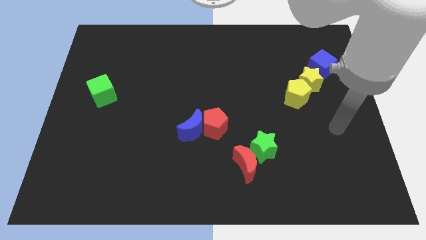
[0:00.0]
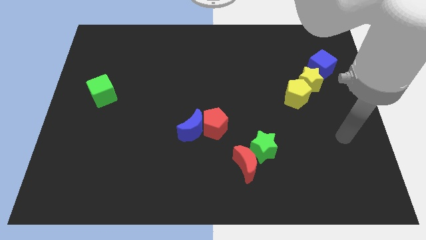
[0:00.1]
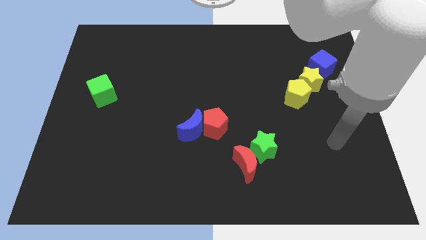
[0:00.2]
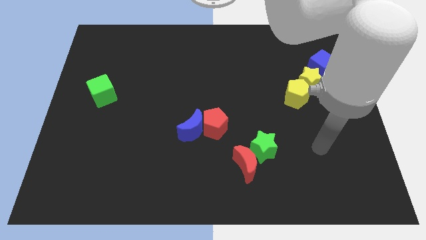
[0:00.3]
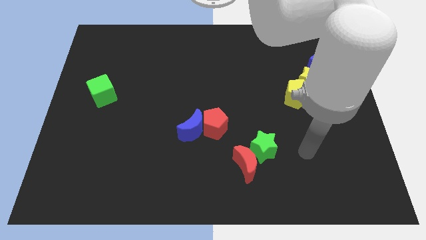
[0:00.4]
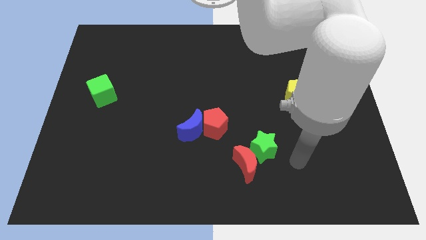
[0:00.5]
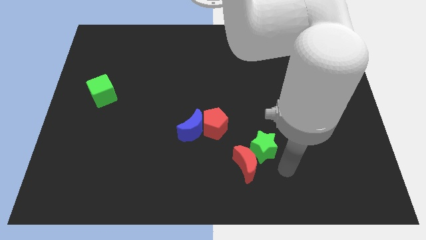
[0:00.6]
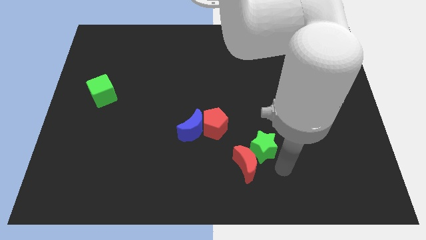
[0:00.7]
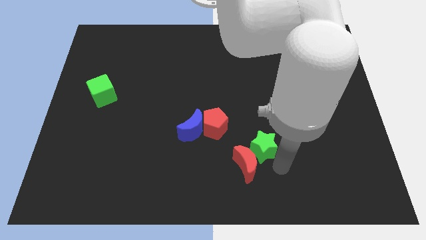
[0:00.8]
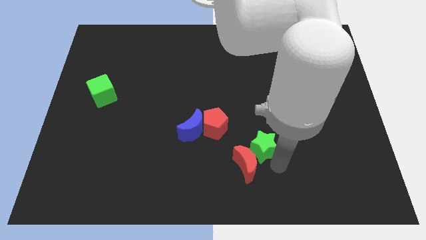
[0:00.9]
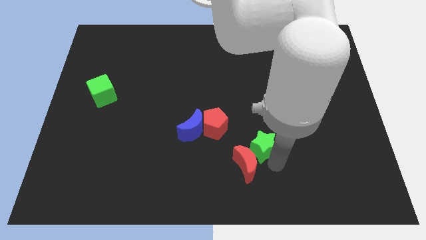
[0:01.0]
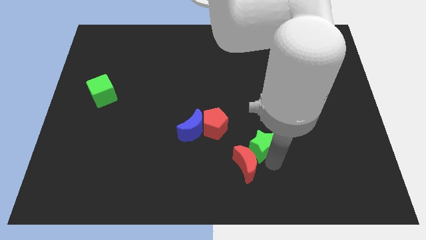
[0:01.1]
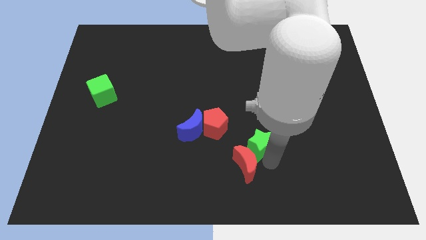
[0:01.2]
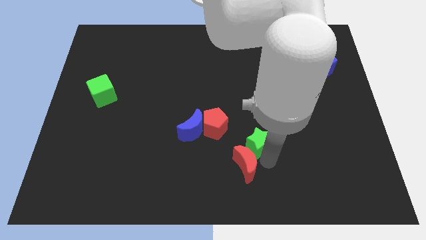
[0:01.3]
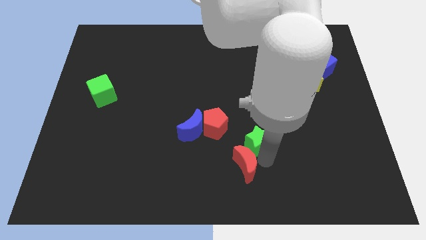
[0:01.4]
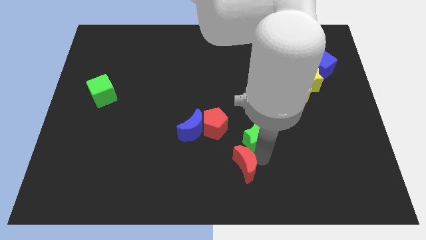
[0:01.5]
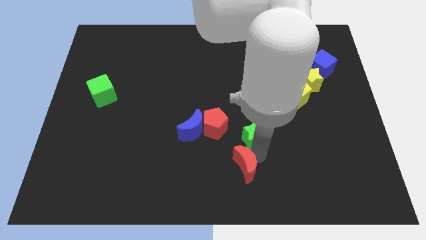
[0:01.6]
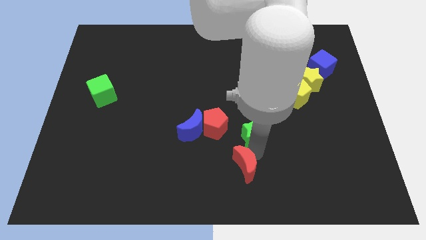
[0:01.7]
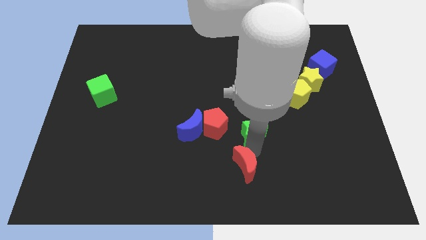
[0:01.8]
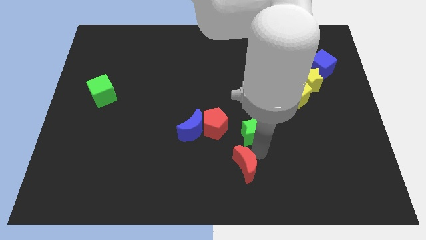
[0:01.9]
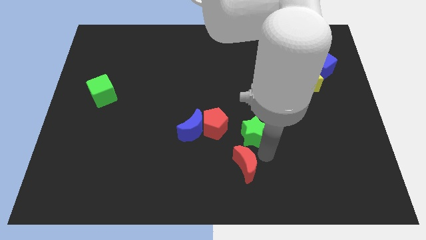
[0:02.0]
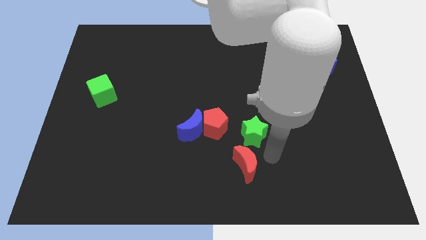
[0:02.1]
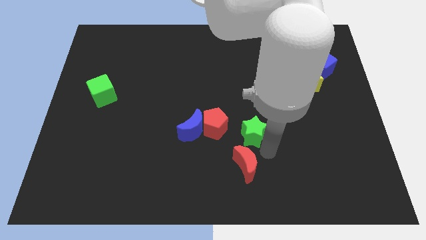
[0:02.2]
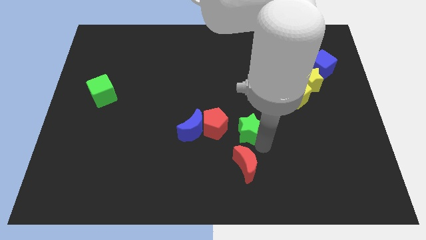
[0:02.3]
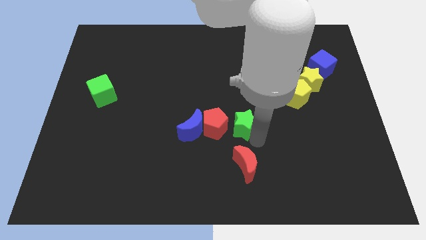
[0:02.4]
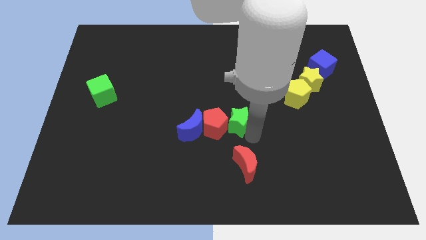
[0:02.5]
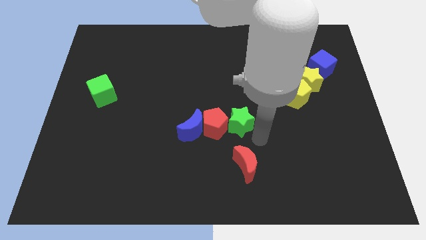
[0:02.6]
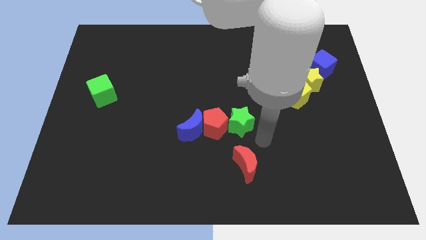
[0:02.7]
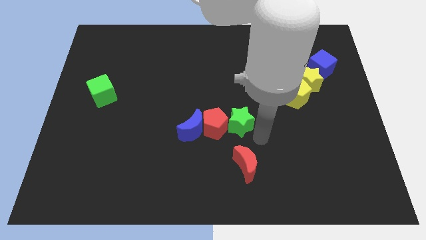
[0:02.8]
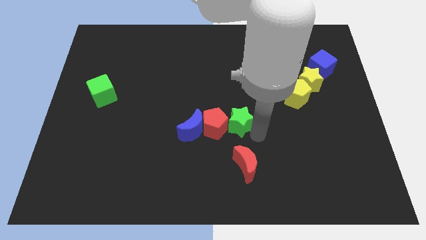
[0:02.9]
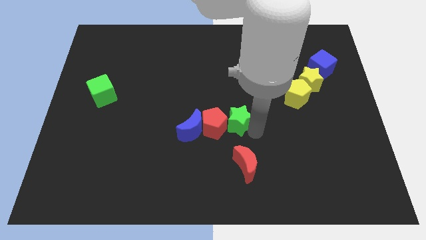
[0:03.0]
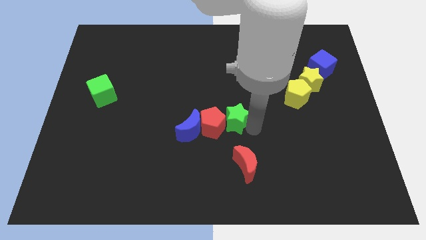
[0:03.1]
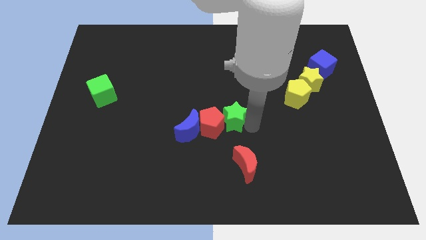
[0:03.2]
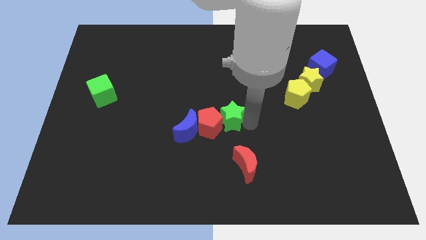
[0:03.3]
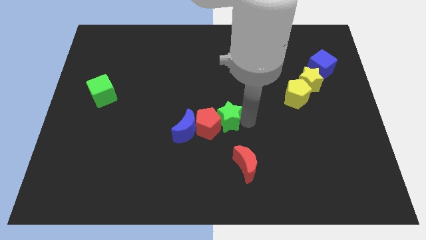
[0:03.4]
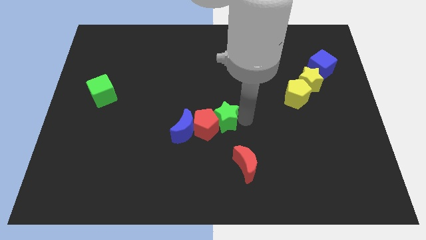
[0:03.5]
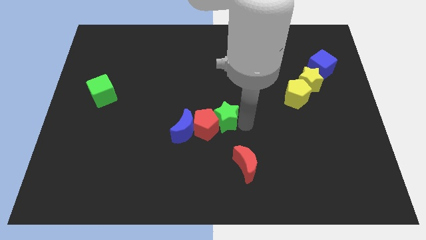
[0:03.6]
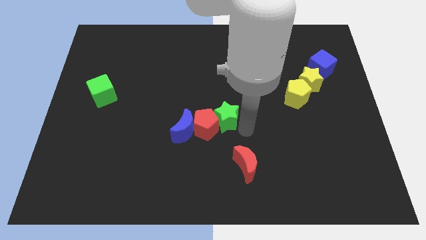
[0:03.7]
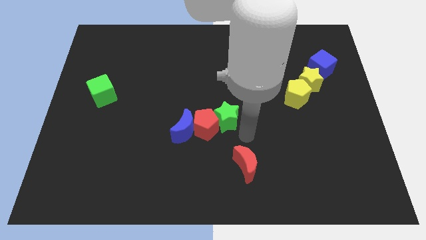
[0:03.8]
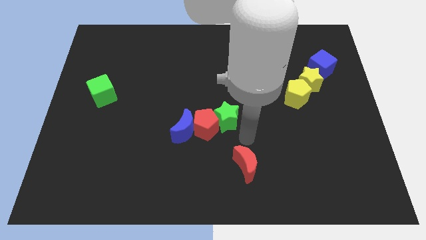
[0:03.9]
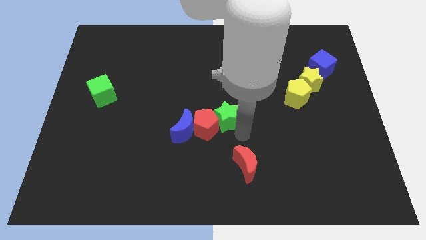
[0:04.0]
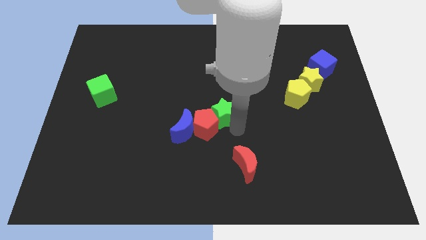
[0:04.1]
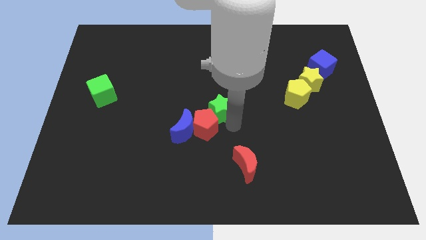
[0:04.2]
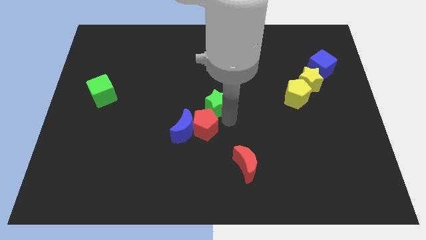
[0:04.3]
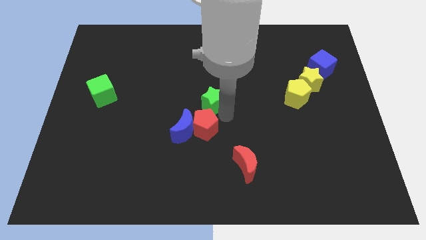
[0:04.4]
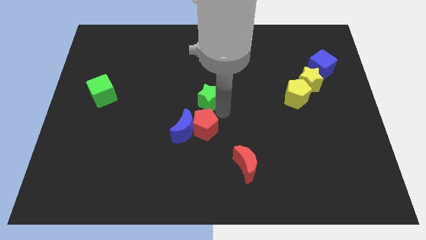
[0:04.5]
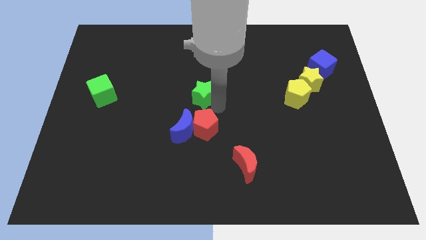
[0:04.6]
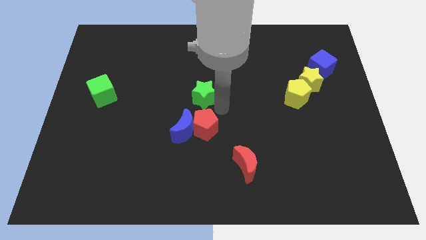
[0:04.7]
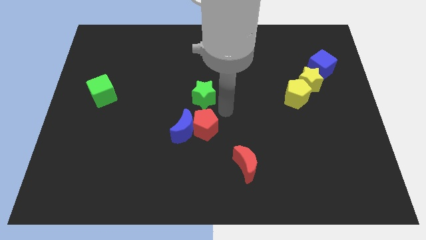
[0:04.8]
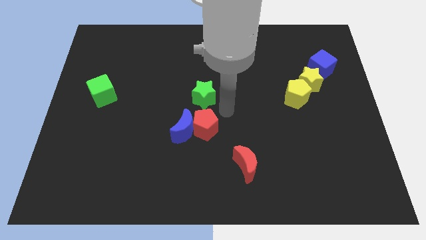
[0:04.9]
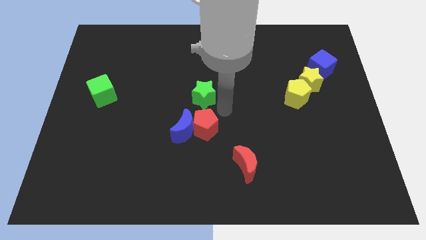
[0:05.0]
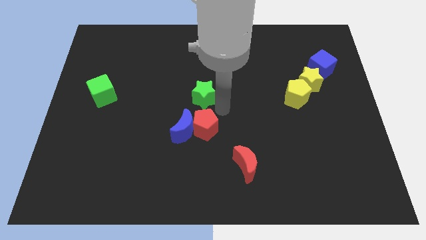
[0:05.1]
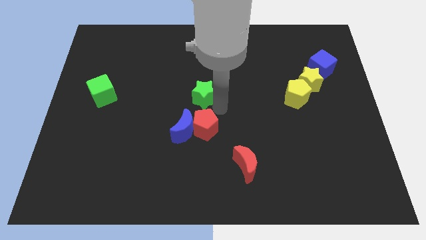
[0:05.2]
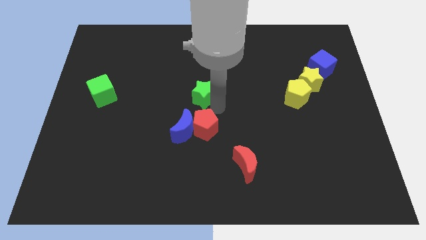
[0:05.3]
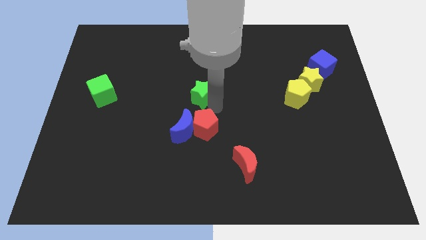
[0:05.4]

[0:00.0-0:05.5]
move the green star diagonally upwards and left

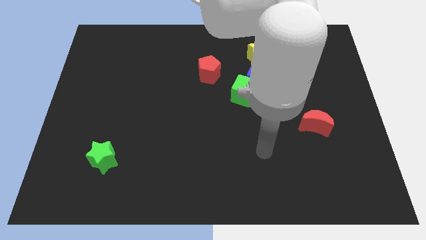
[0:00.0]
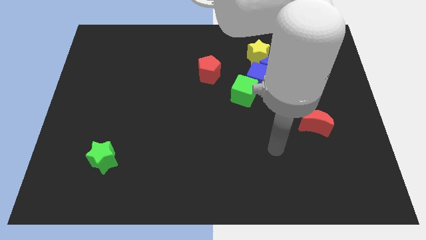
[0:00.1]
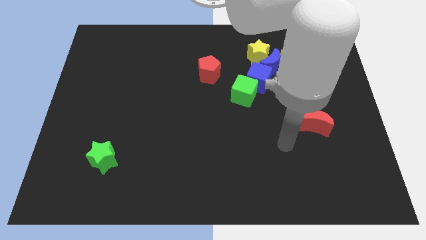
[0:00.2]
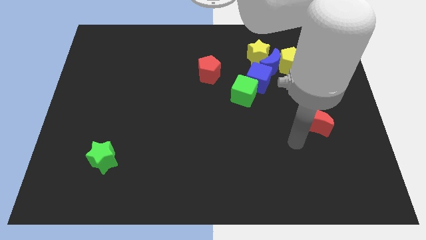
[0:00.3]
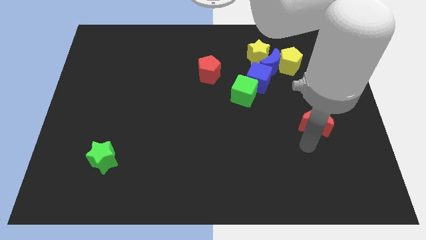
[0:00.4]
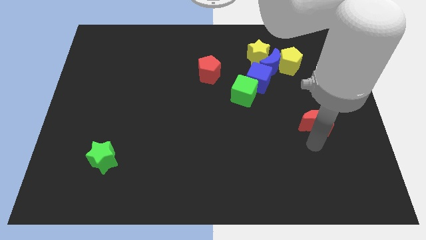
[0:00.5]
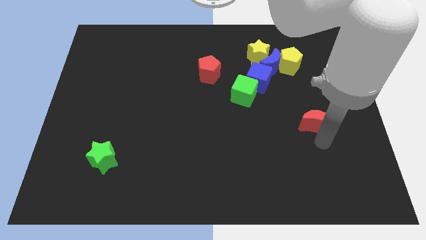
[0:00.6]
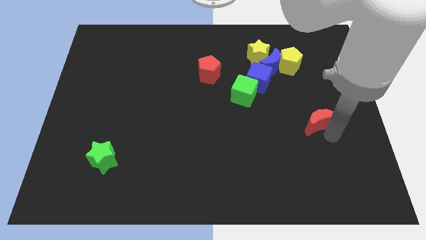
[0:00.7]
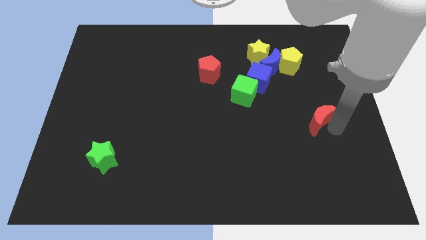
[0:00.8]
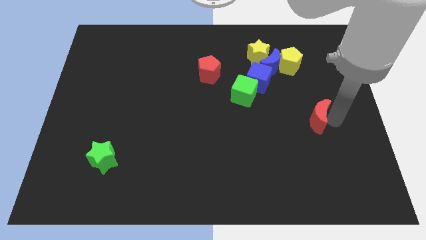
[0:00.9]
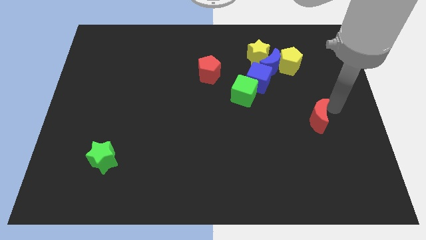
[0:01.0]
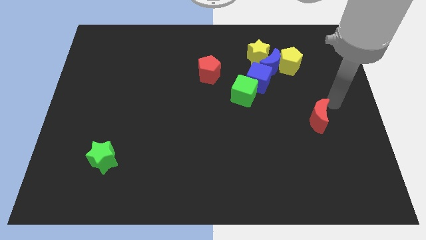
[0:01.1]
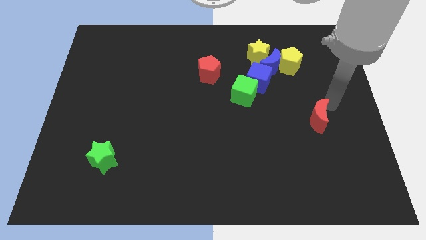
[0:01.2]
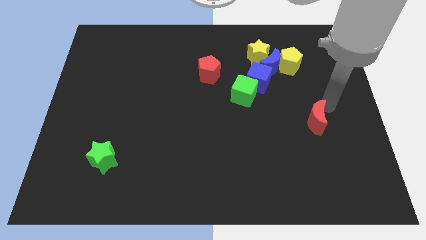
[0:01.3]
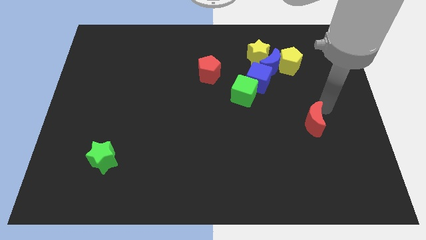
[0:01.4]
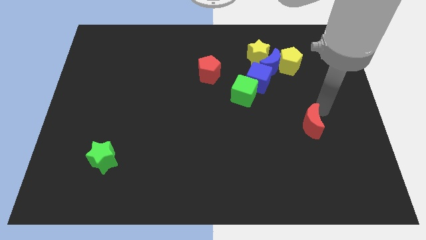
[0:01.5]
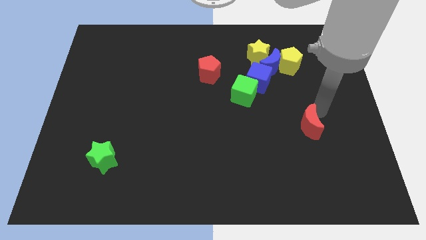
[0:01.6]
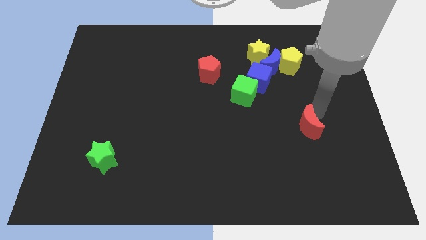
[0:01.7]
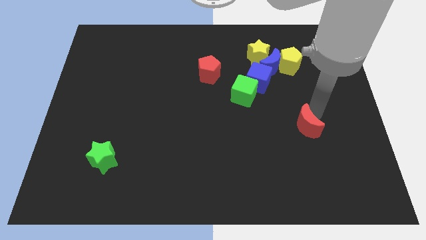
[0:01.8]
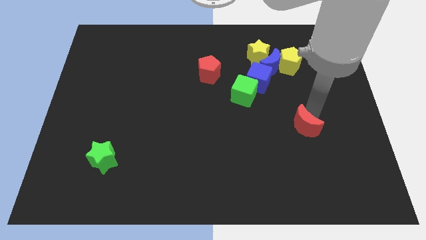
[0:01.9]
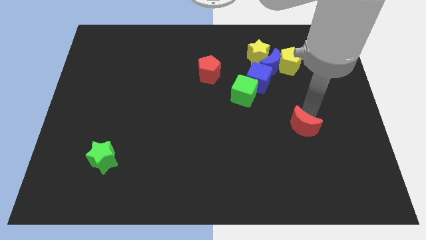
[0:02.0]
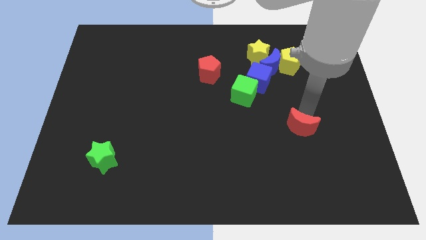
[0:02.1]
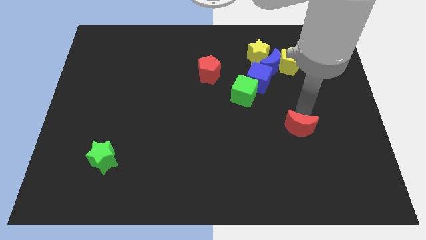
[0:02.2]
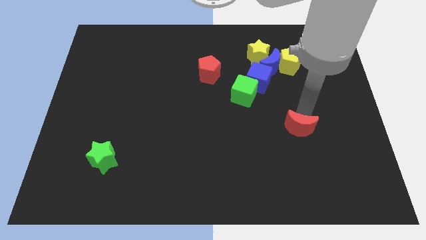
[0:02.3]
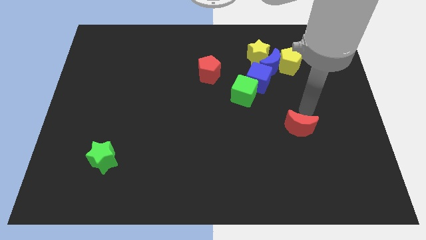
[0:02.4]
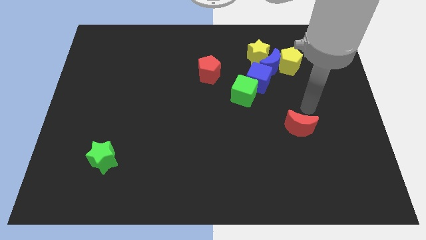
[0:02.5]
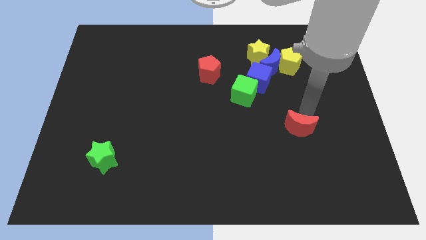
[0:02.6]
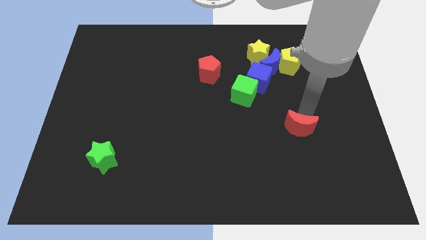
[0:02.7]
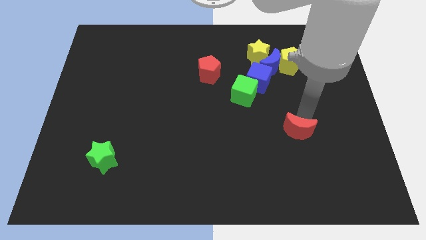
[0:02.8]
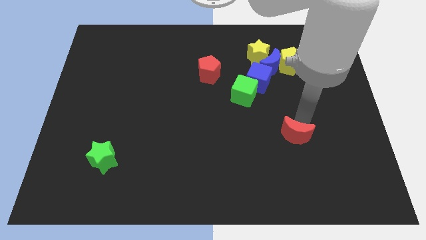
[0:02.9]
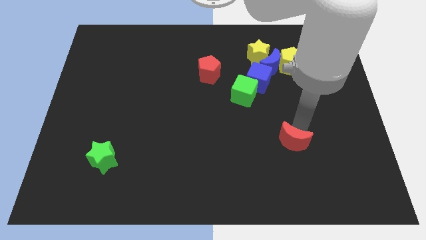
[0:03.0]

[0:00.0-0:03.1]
move the red moon slightly downwards and to the left diagonally
